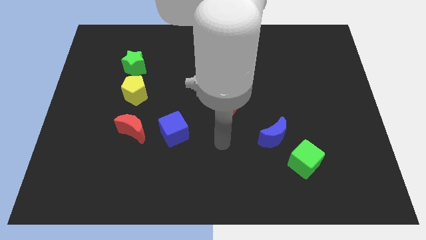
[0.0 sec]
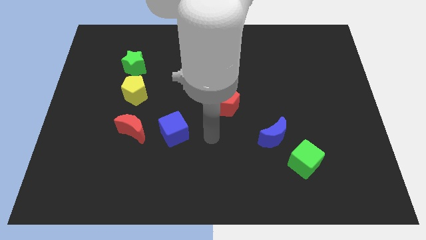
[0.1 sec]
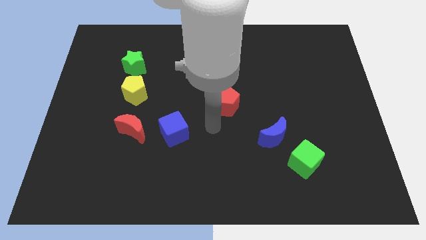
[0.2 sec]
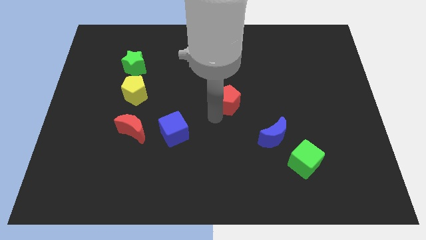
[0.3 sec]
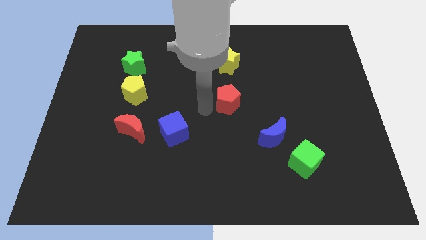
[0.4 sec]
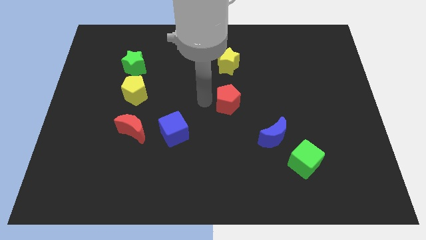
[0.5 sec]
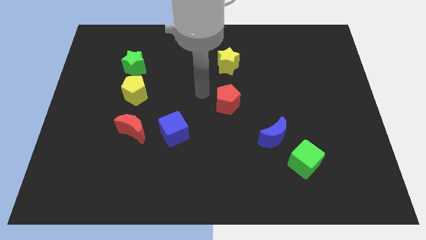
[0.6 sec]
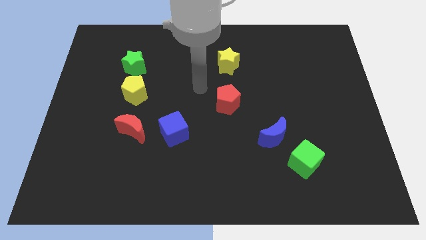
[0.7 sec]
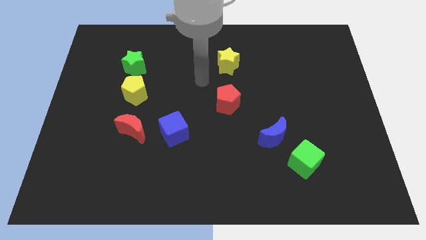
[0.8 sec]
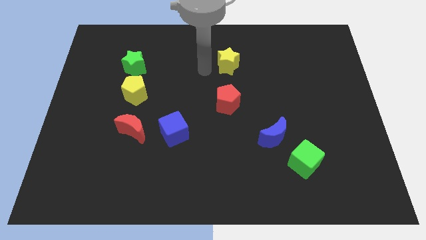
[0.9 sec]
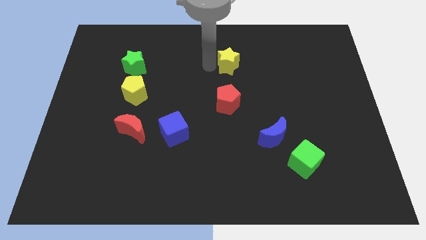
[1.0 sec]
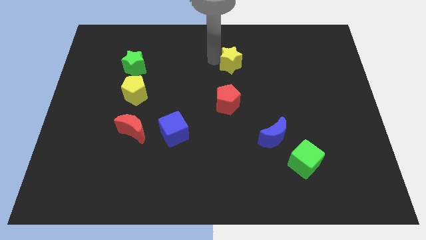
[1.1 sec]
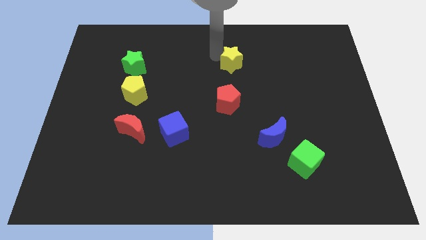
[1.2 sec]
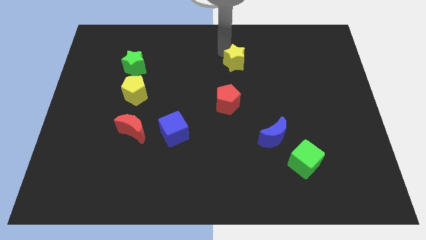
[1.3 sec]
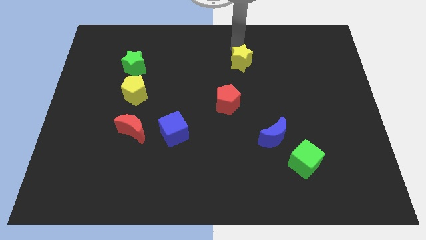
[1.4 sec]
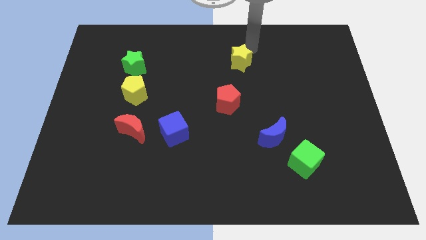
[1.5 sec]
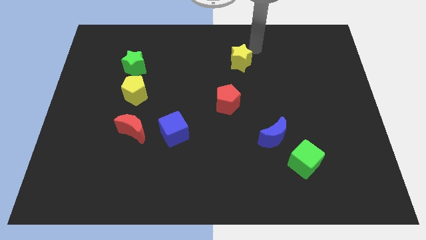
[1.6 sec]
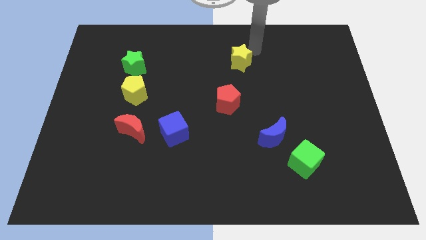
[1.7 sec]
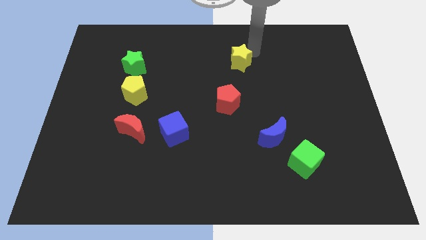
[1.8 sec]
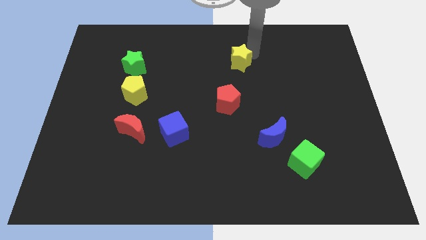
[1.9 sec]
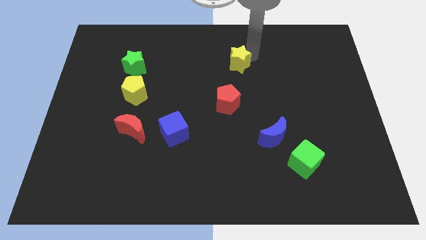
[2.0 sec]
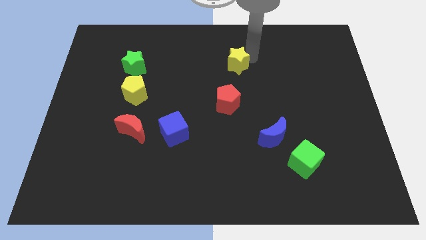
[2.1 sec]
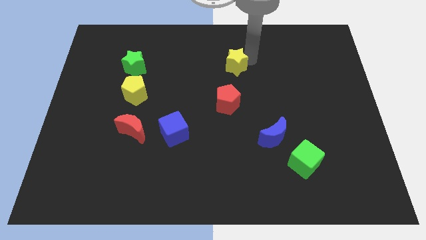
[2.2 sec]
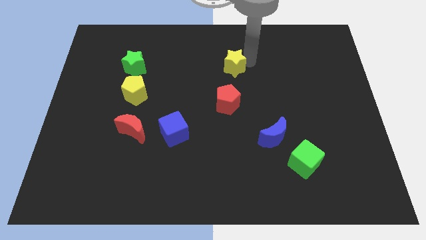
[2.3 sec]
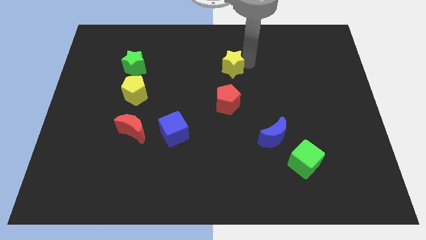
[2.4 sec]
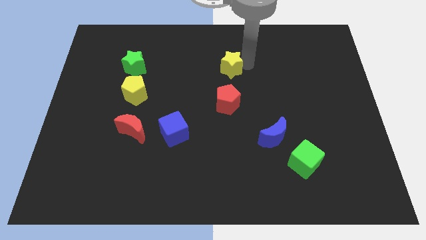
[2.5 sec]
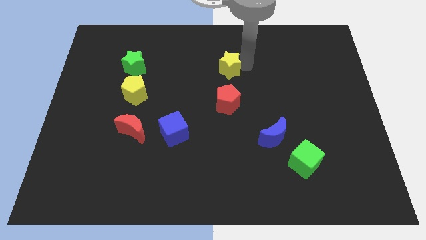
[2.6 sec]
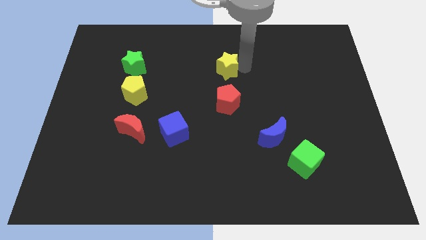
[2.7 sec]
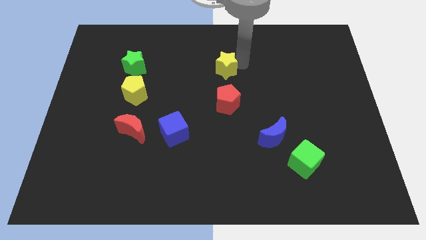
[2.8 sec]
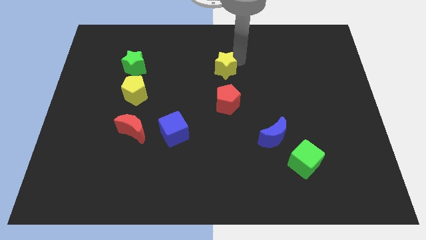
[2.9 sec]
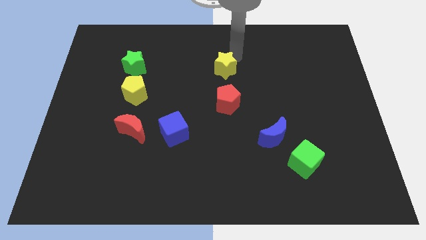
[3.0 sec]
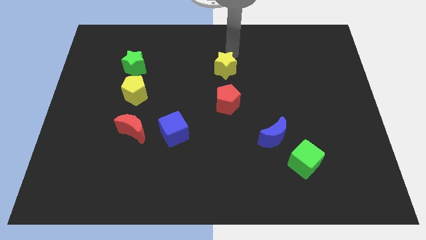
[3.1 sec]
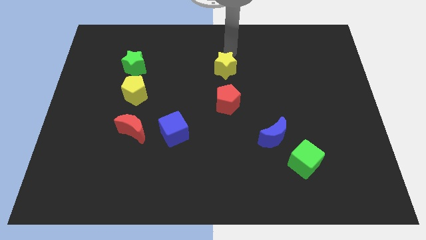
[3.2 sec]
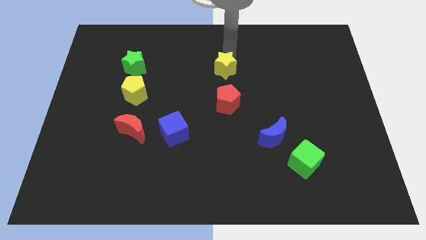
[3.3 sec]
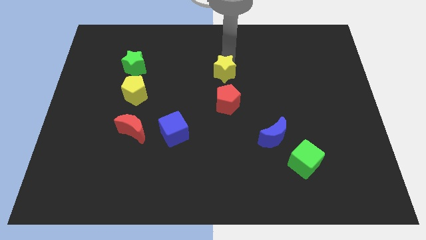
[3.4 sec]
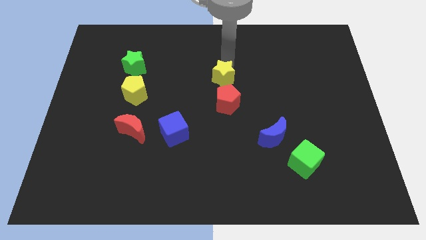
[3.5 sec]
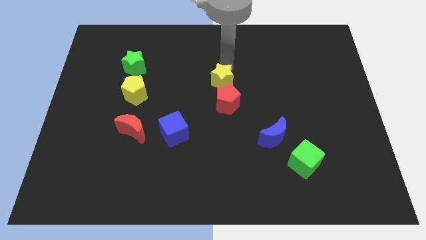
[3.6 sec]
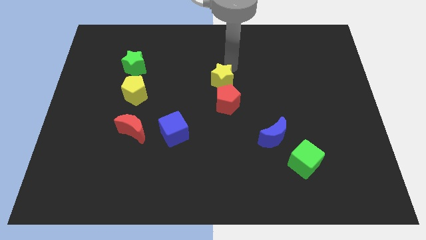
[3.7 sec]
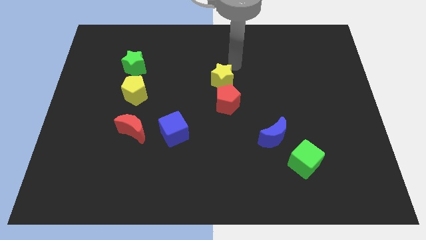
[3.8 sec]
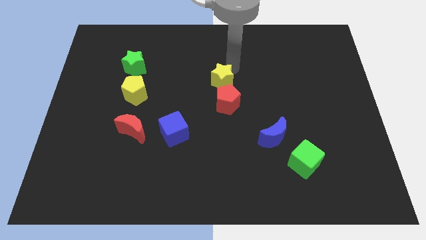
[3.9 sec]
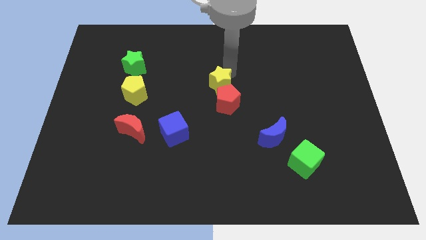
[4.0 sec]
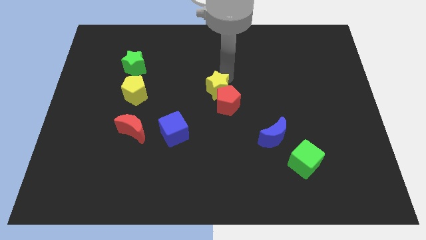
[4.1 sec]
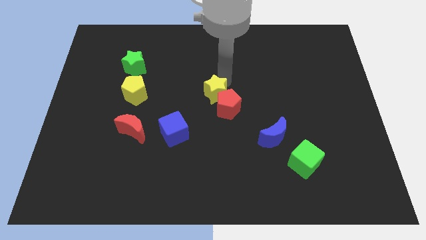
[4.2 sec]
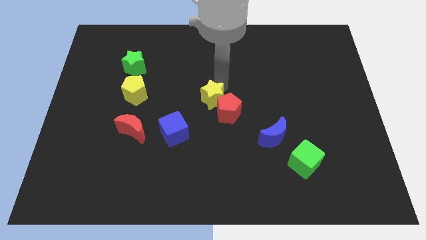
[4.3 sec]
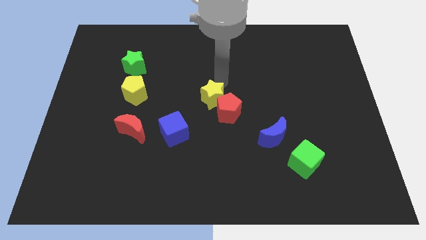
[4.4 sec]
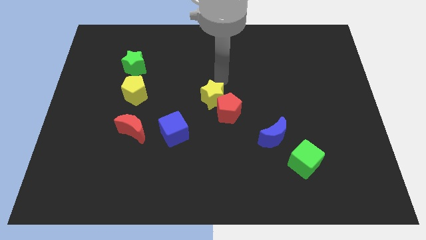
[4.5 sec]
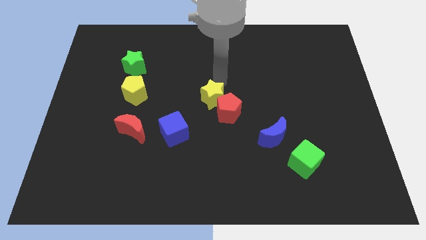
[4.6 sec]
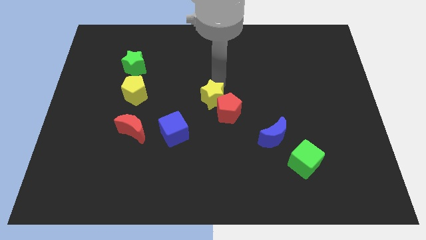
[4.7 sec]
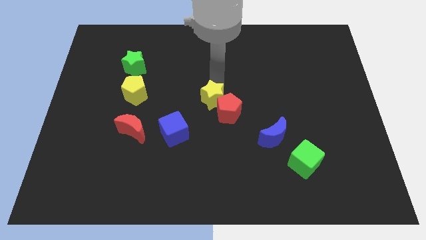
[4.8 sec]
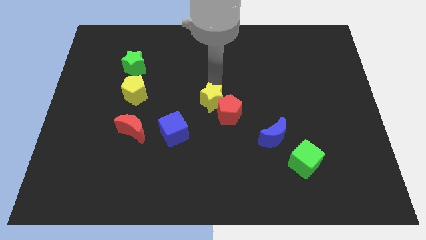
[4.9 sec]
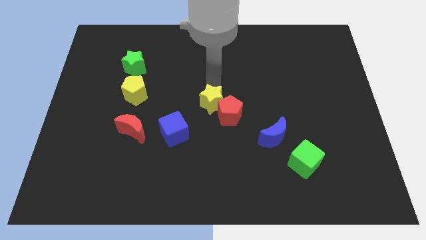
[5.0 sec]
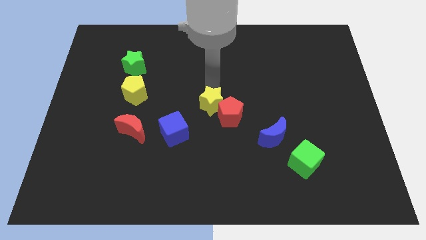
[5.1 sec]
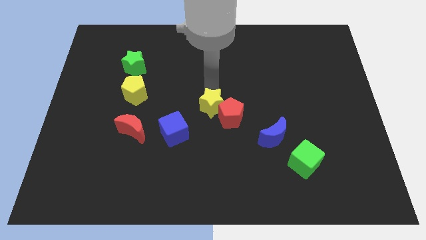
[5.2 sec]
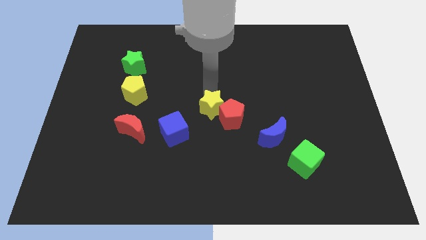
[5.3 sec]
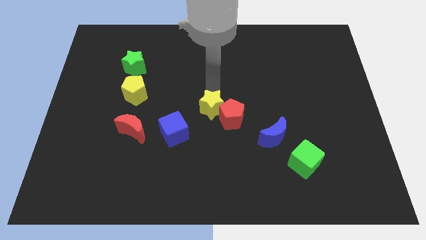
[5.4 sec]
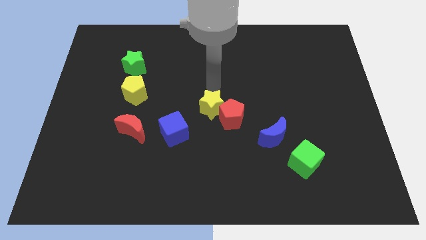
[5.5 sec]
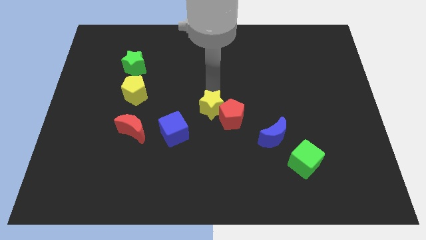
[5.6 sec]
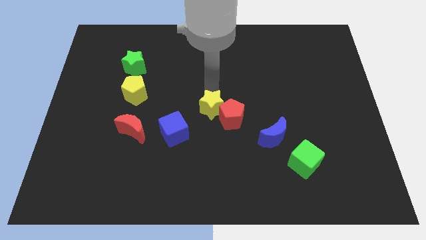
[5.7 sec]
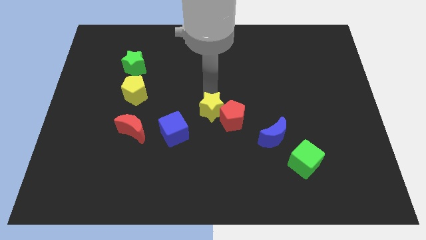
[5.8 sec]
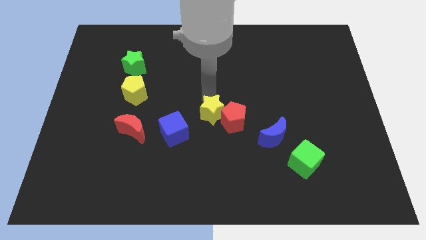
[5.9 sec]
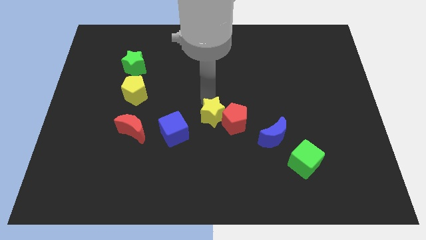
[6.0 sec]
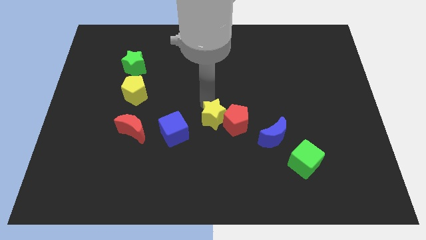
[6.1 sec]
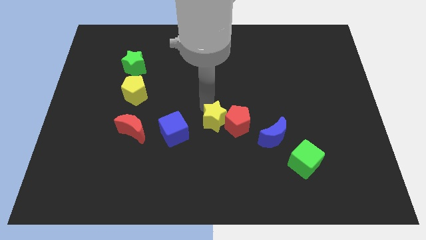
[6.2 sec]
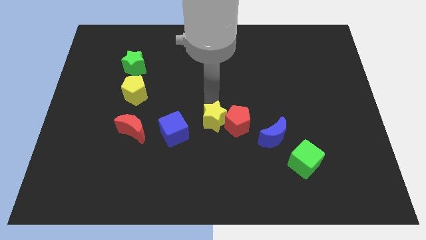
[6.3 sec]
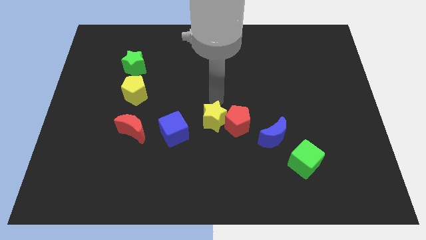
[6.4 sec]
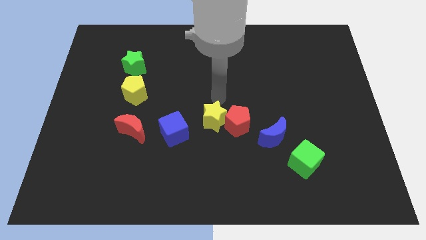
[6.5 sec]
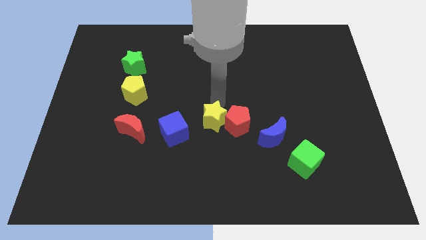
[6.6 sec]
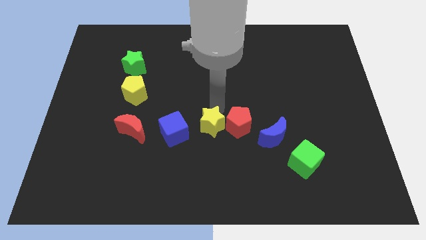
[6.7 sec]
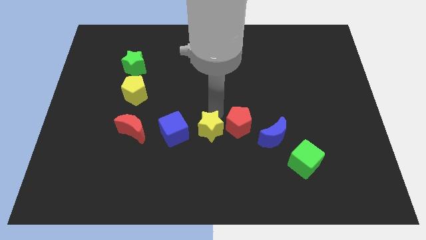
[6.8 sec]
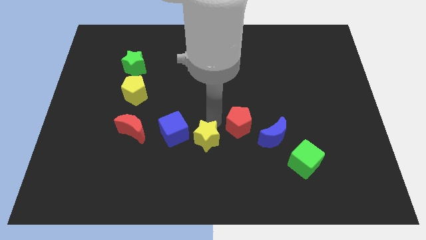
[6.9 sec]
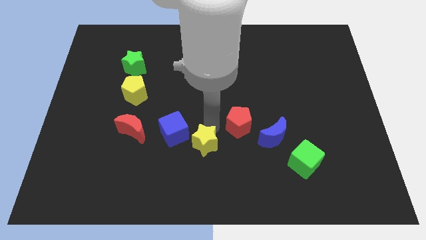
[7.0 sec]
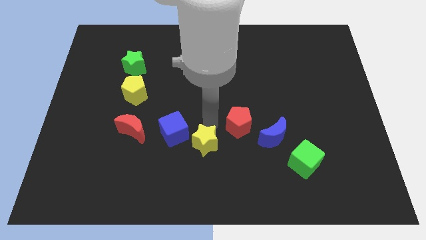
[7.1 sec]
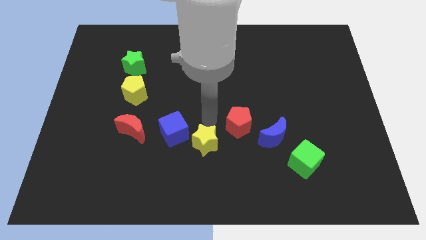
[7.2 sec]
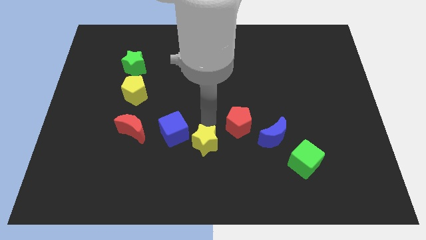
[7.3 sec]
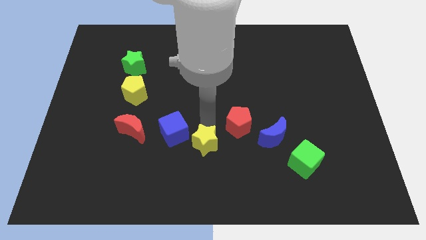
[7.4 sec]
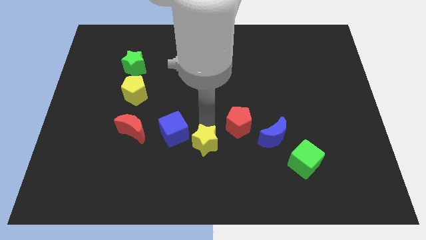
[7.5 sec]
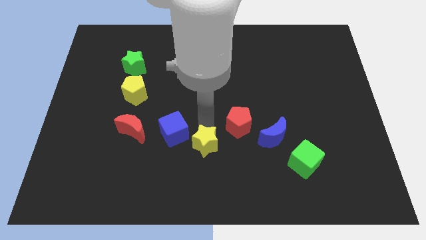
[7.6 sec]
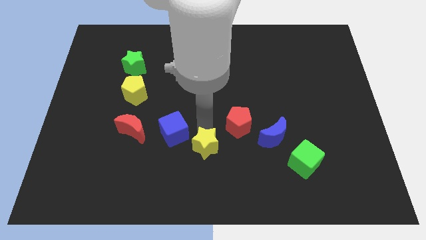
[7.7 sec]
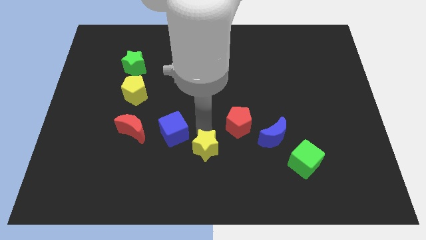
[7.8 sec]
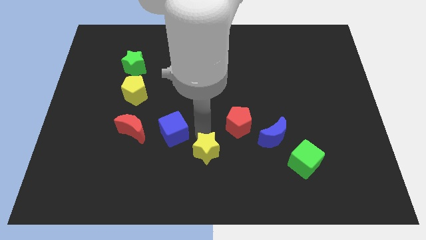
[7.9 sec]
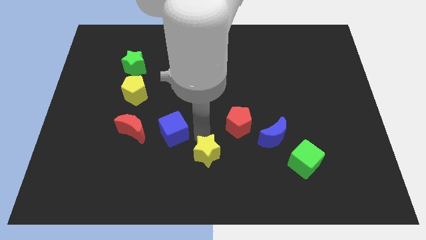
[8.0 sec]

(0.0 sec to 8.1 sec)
put the yellow star to the bottom
